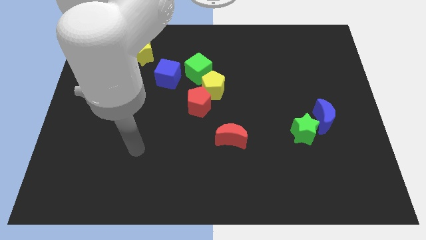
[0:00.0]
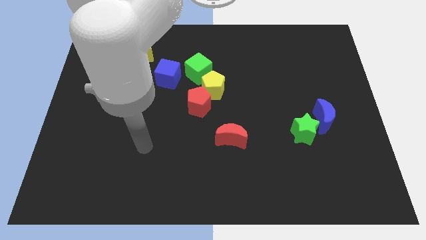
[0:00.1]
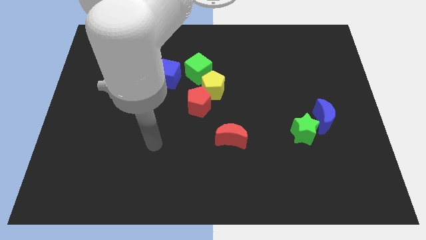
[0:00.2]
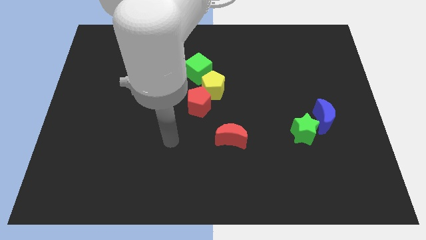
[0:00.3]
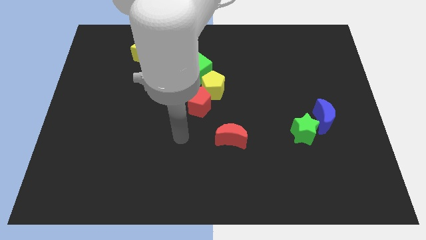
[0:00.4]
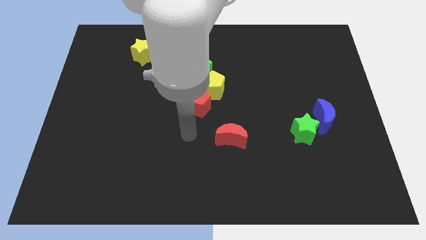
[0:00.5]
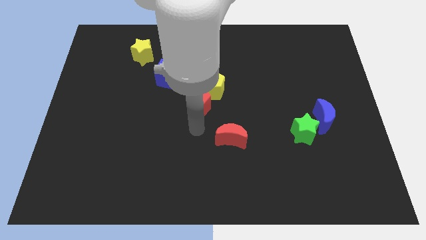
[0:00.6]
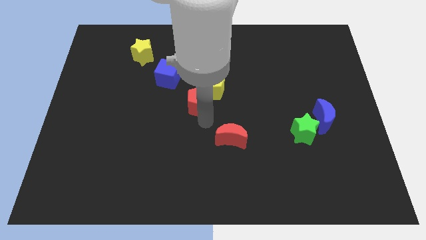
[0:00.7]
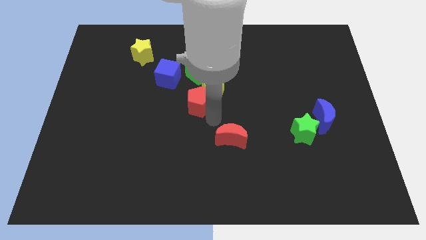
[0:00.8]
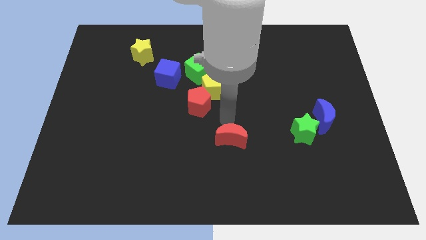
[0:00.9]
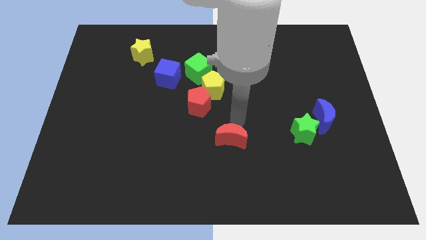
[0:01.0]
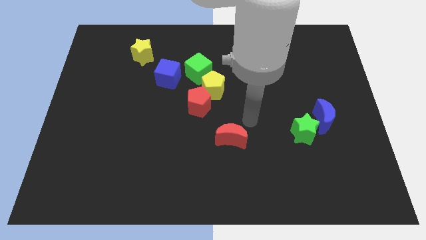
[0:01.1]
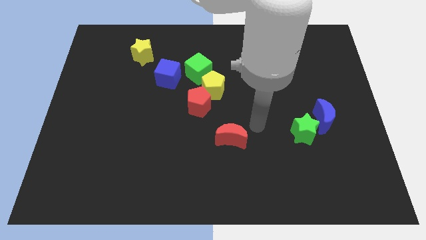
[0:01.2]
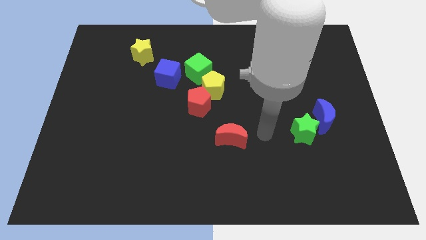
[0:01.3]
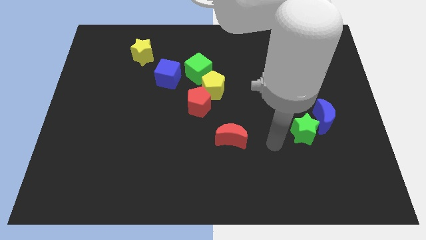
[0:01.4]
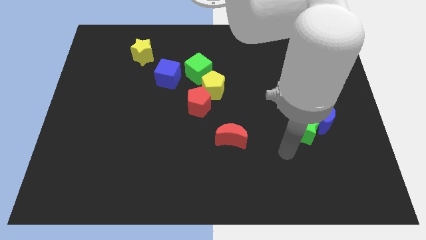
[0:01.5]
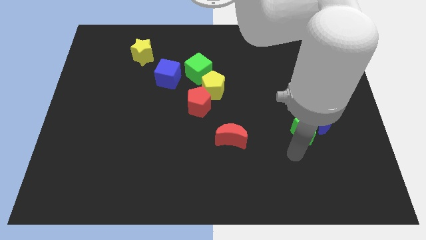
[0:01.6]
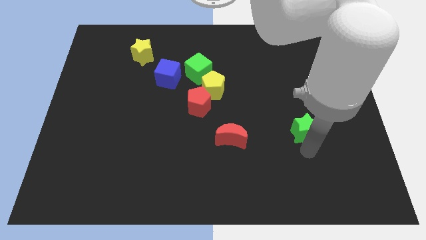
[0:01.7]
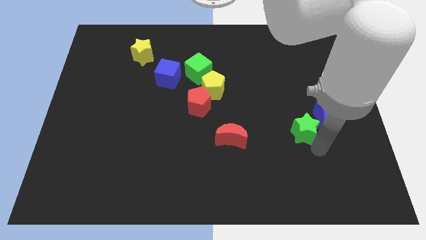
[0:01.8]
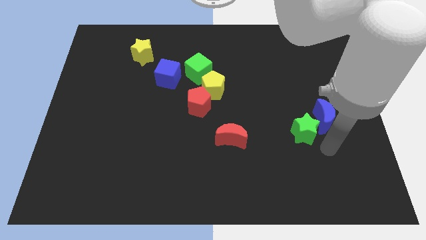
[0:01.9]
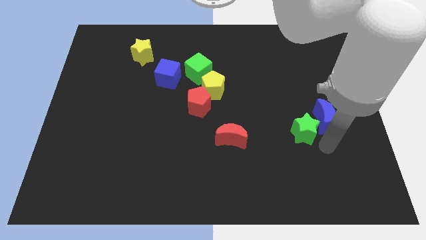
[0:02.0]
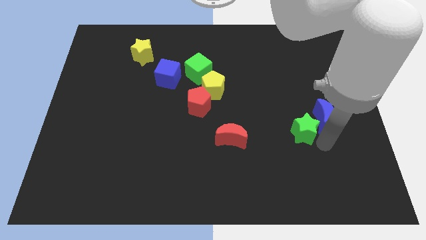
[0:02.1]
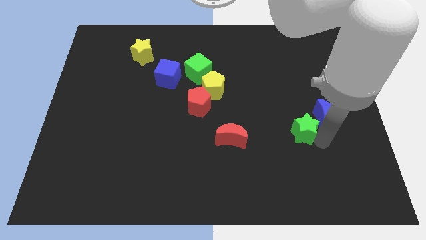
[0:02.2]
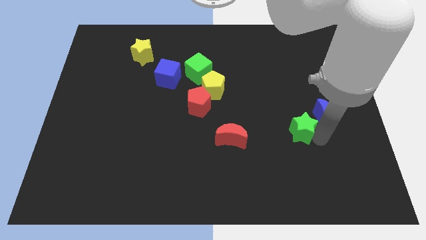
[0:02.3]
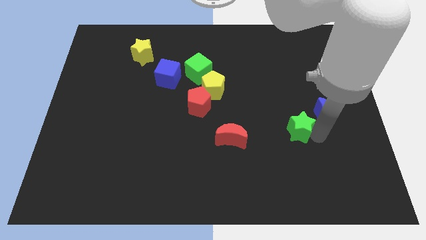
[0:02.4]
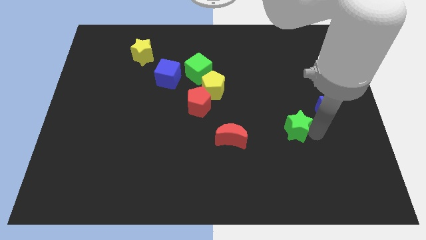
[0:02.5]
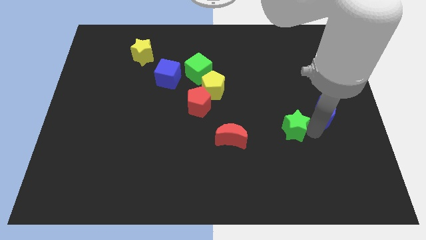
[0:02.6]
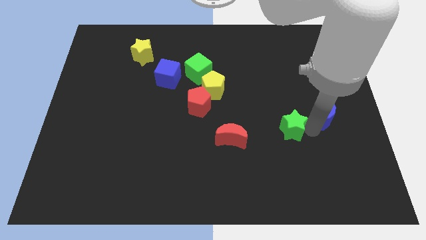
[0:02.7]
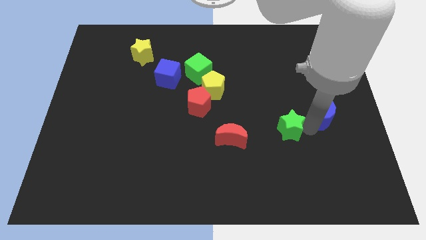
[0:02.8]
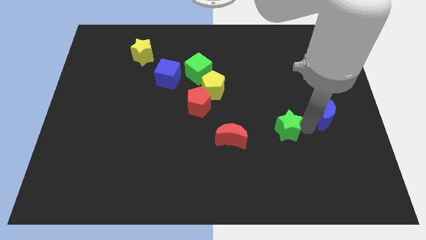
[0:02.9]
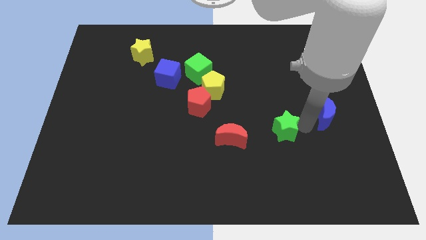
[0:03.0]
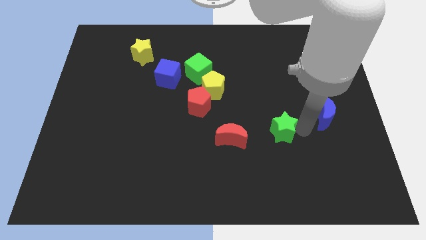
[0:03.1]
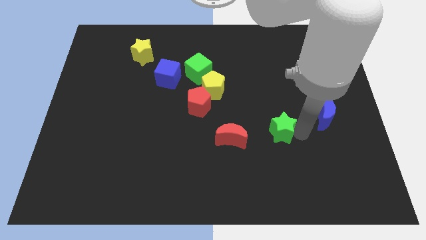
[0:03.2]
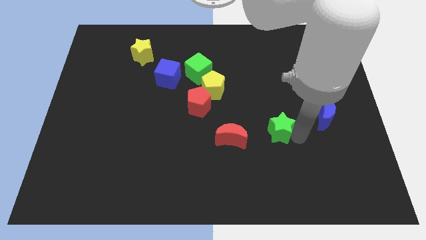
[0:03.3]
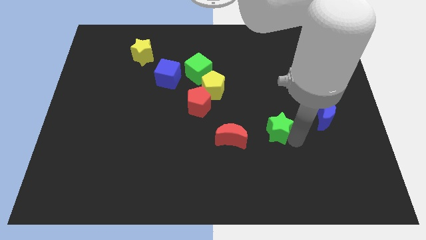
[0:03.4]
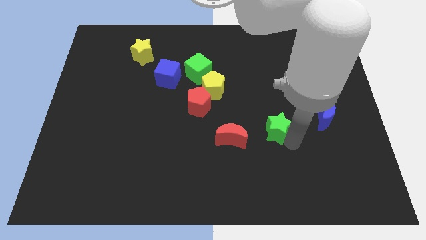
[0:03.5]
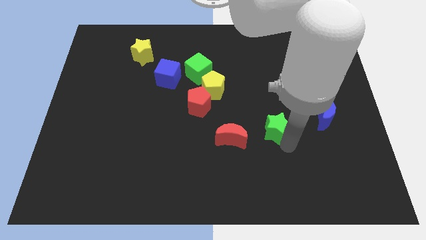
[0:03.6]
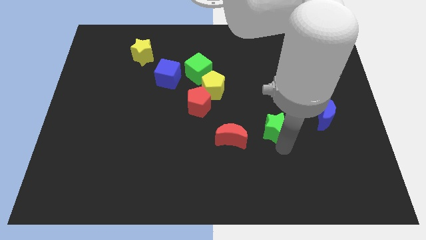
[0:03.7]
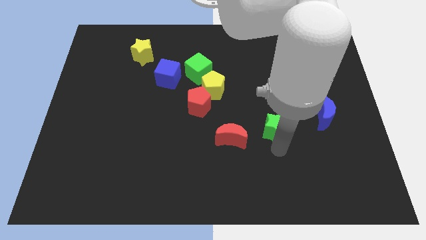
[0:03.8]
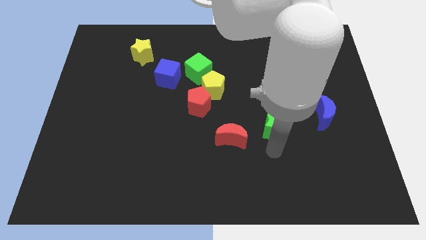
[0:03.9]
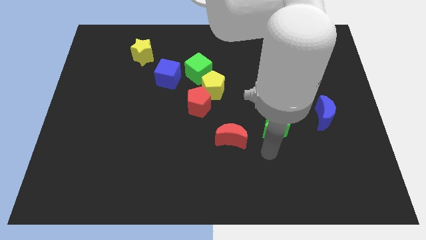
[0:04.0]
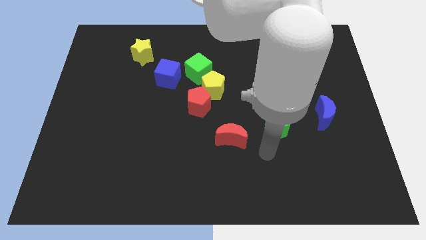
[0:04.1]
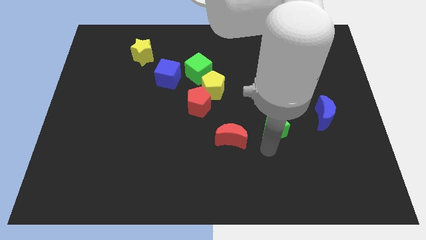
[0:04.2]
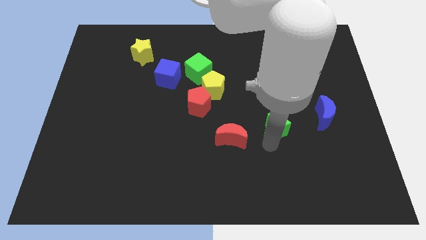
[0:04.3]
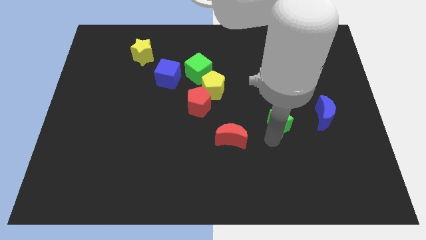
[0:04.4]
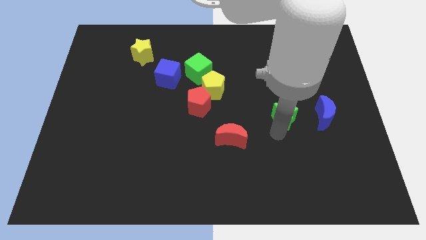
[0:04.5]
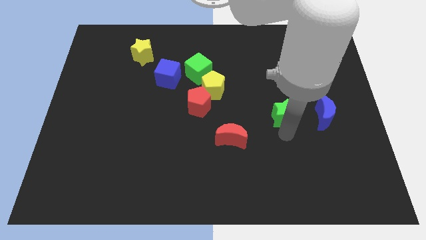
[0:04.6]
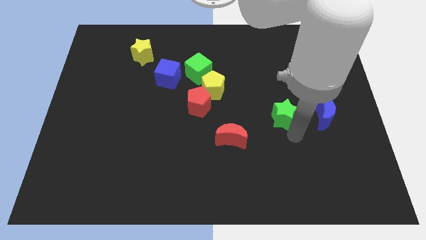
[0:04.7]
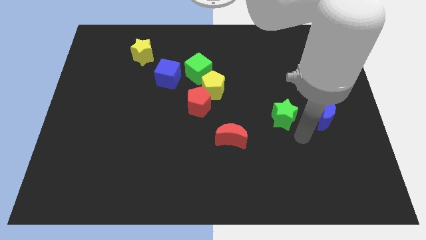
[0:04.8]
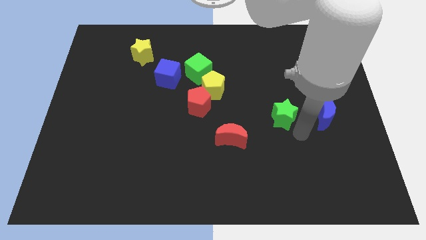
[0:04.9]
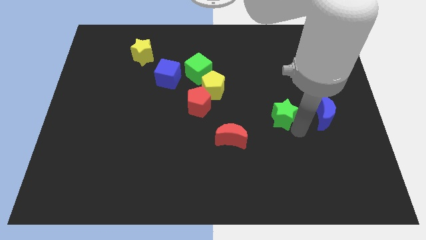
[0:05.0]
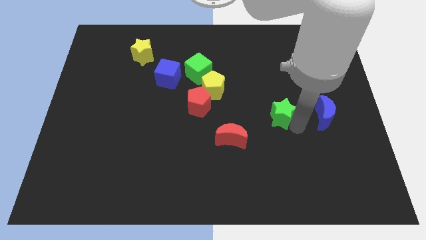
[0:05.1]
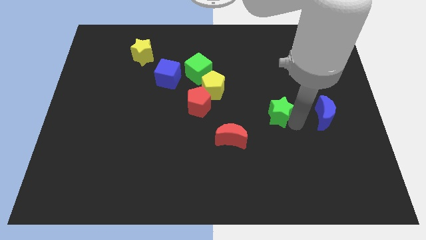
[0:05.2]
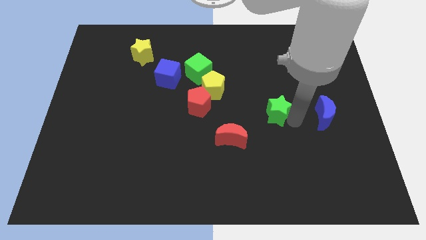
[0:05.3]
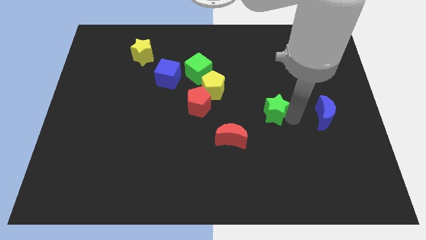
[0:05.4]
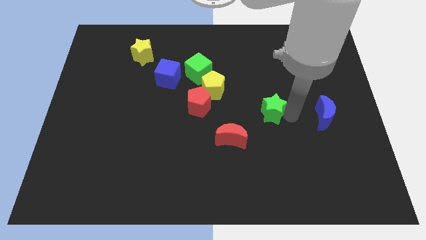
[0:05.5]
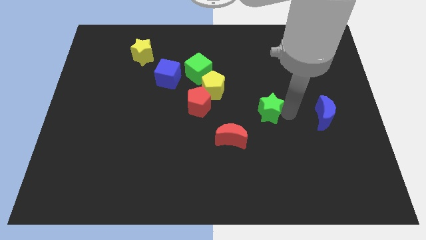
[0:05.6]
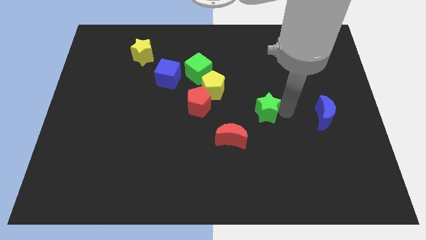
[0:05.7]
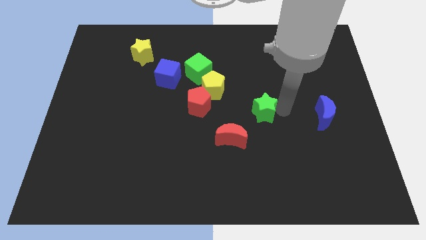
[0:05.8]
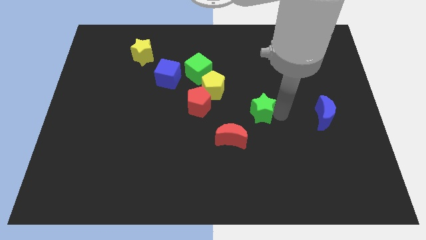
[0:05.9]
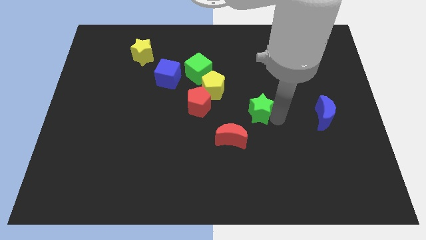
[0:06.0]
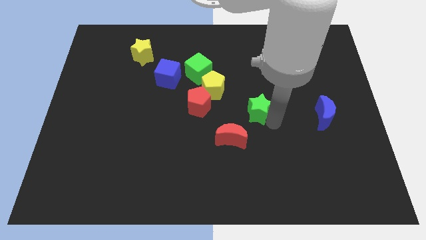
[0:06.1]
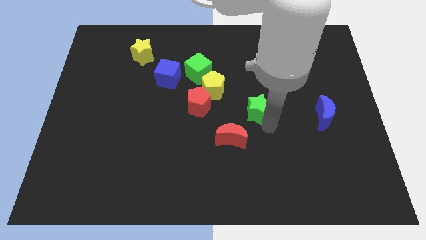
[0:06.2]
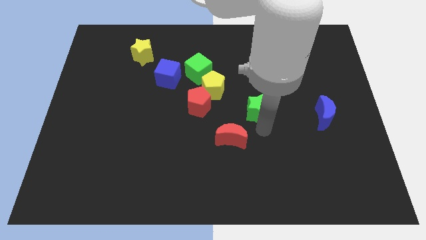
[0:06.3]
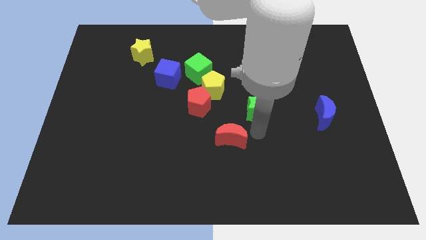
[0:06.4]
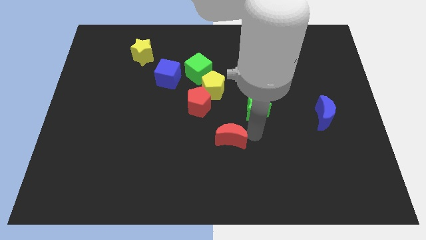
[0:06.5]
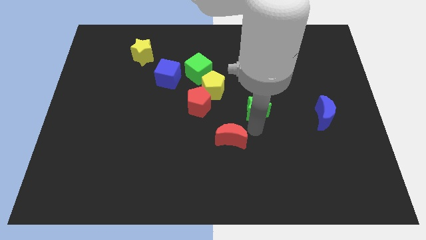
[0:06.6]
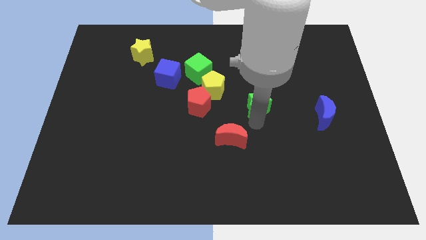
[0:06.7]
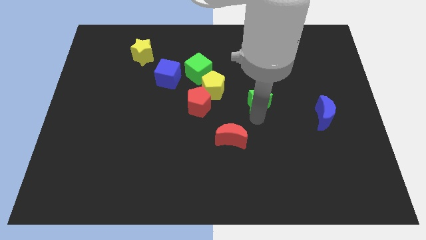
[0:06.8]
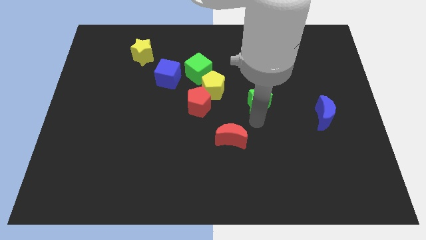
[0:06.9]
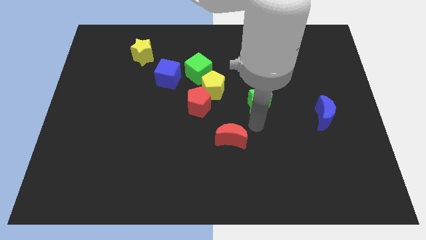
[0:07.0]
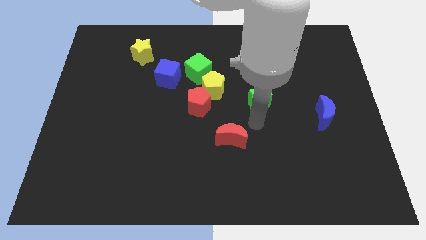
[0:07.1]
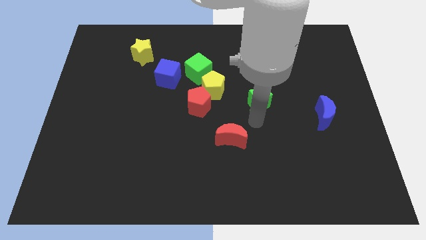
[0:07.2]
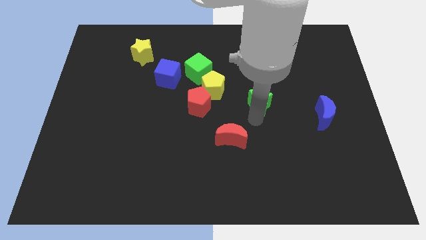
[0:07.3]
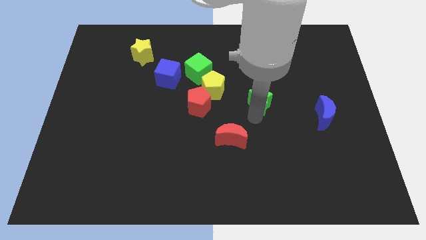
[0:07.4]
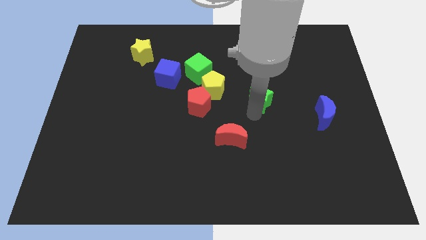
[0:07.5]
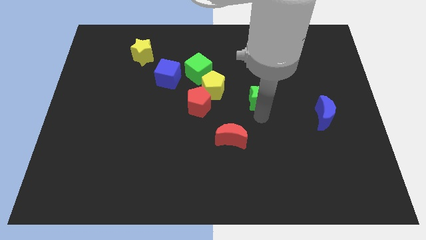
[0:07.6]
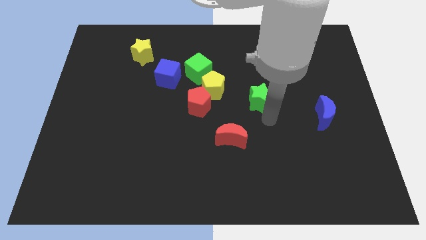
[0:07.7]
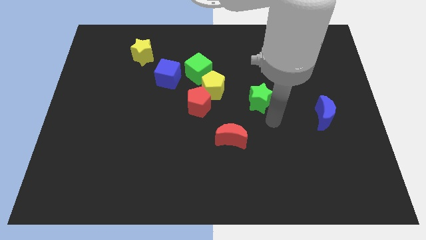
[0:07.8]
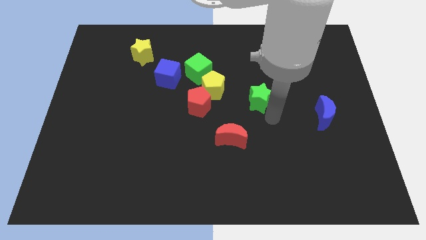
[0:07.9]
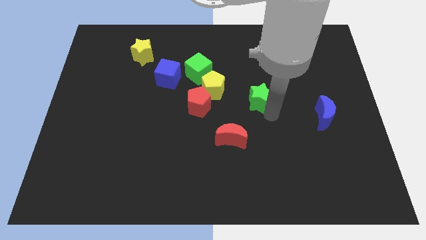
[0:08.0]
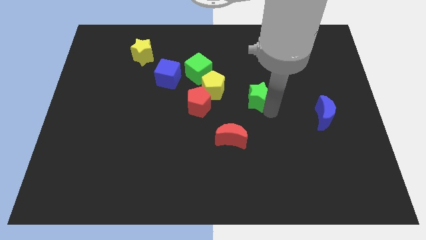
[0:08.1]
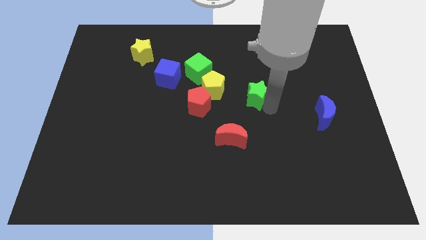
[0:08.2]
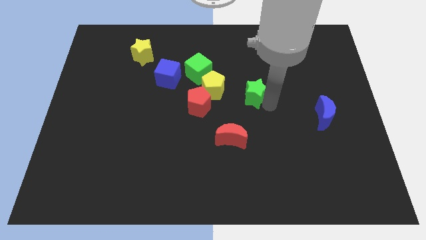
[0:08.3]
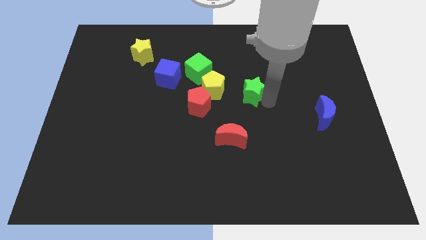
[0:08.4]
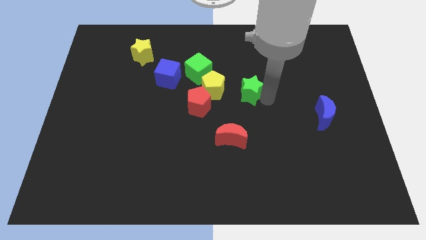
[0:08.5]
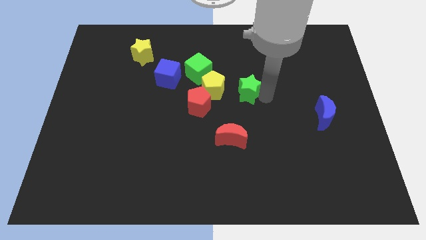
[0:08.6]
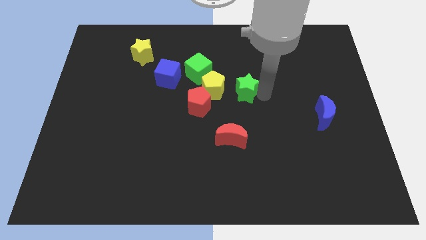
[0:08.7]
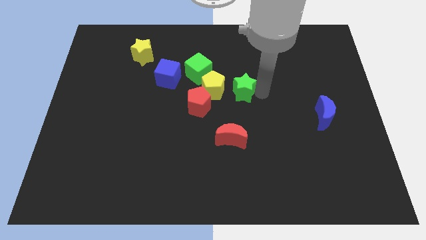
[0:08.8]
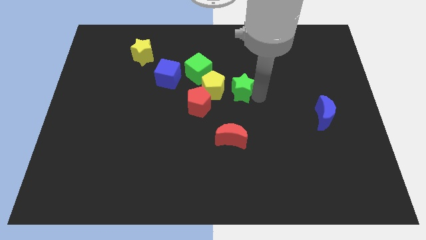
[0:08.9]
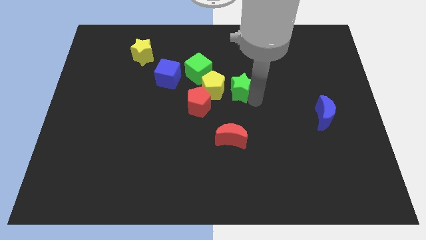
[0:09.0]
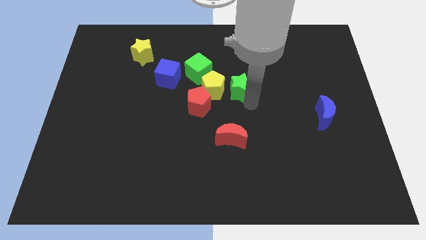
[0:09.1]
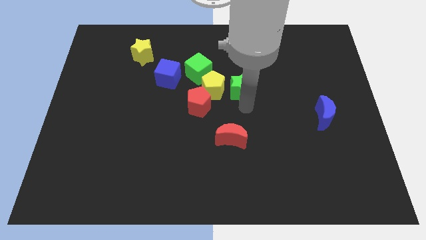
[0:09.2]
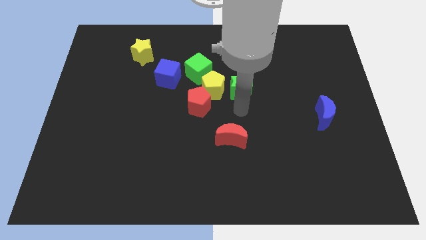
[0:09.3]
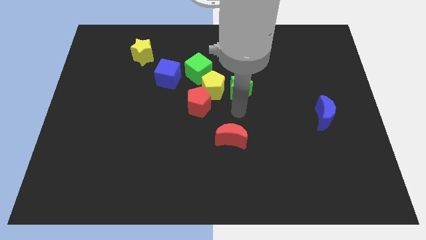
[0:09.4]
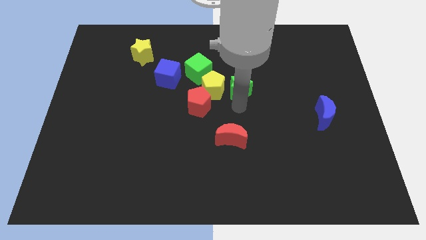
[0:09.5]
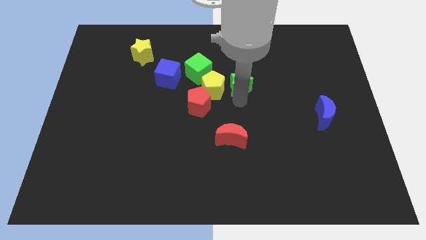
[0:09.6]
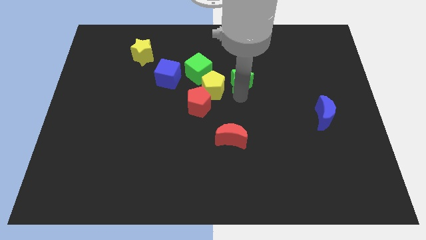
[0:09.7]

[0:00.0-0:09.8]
push the green star upwards and to the left diagonally
